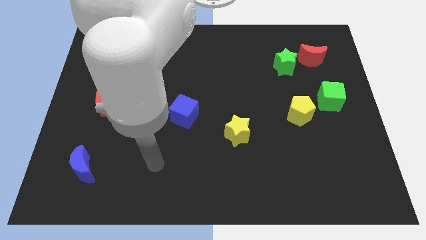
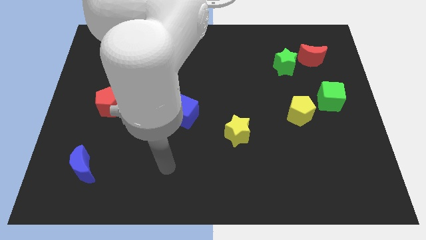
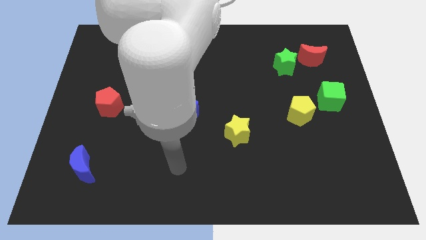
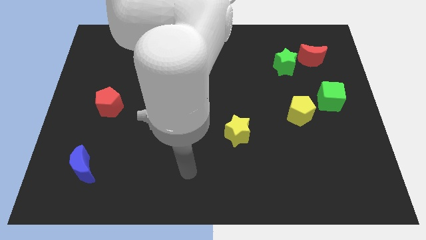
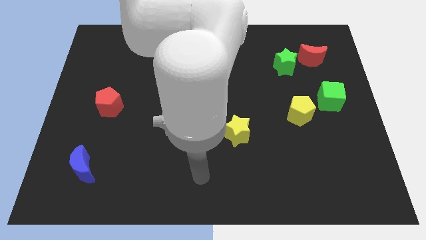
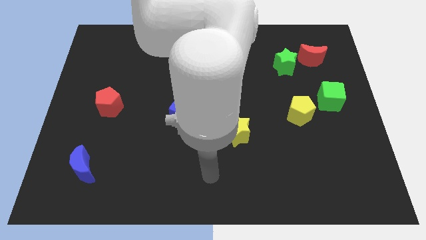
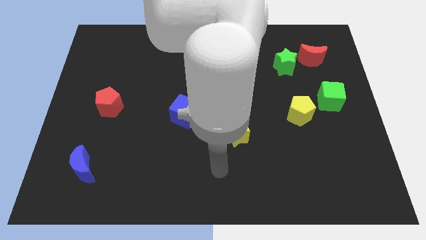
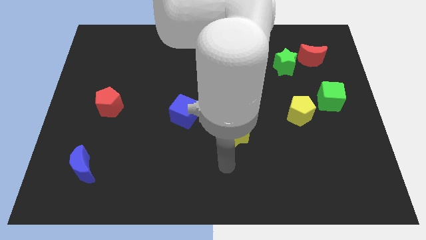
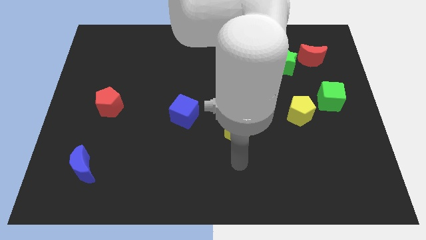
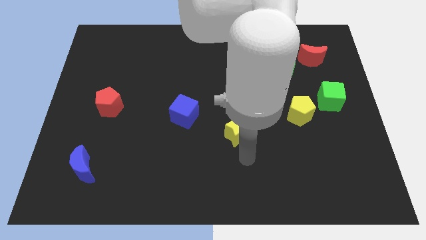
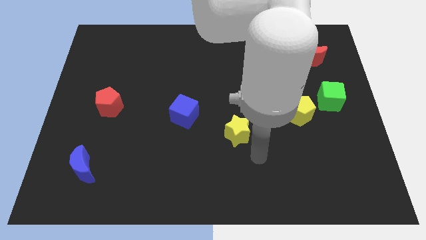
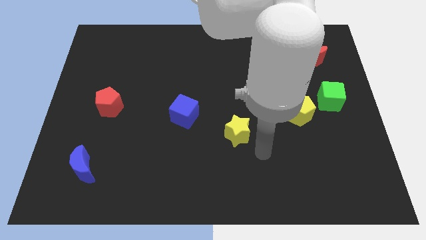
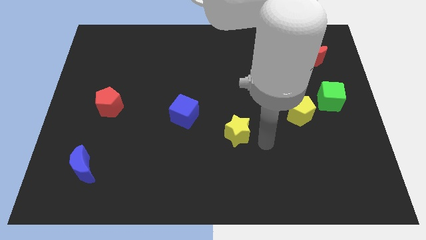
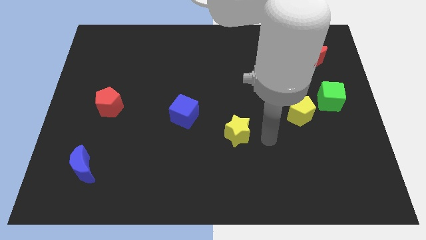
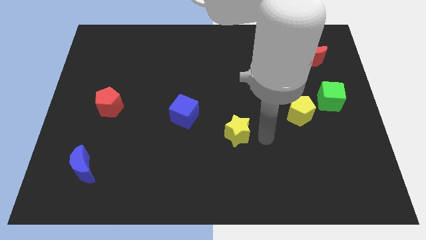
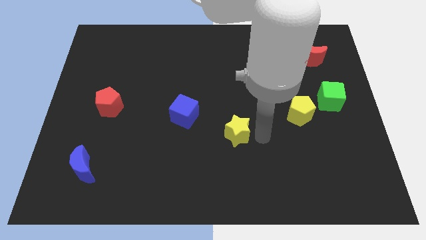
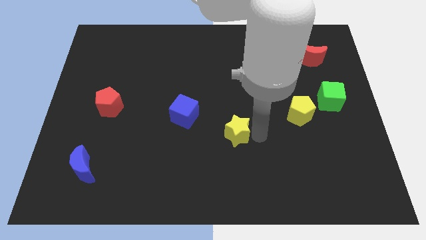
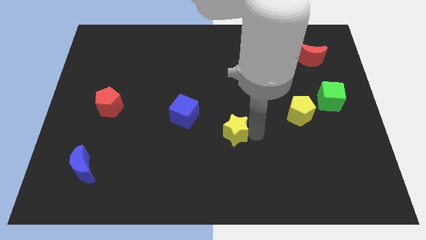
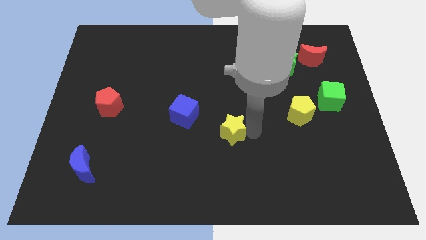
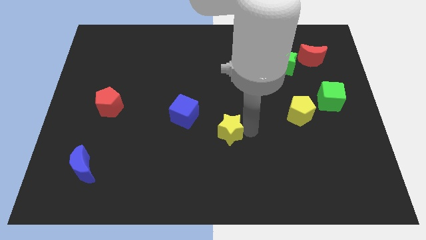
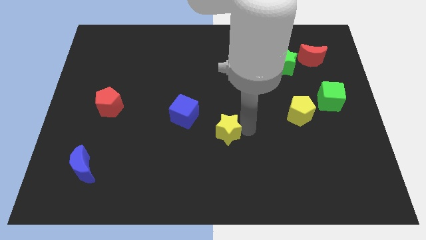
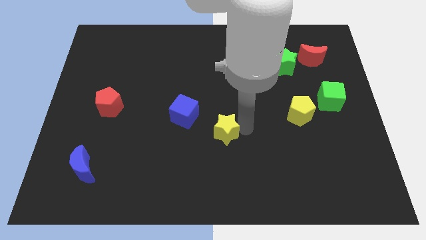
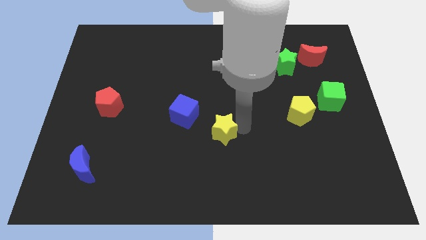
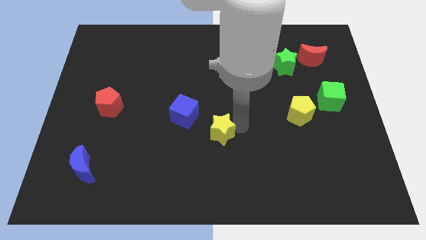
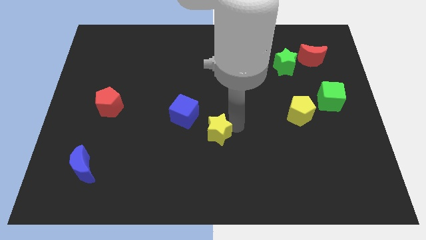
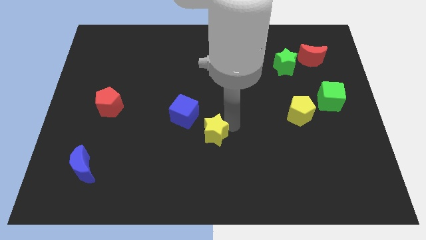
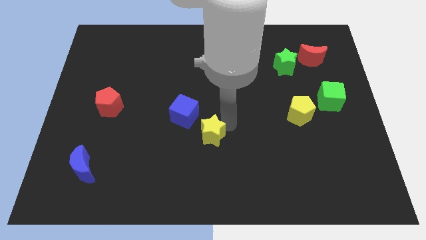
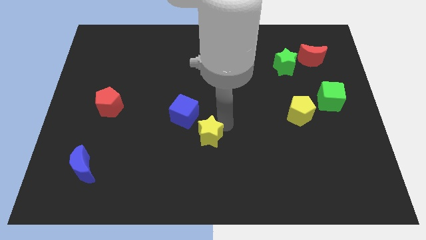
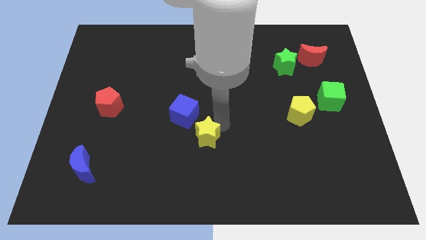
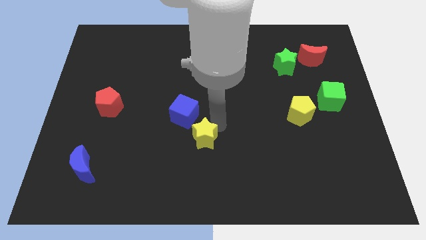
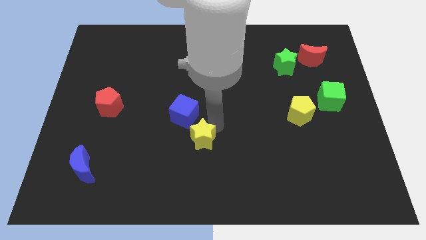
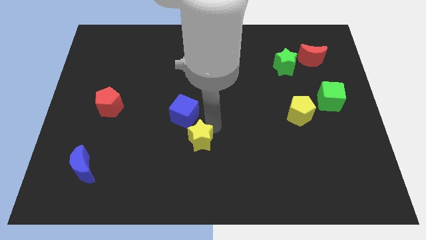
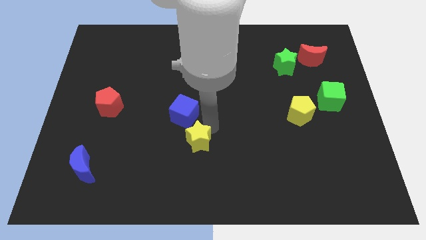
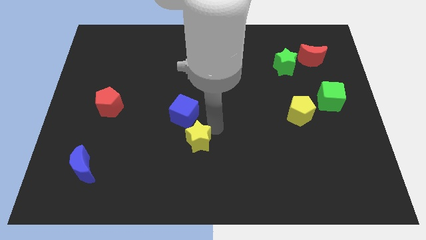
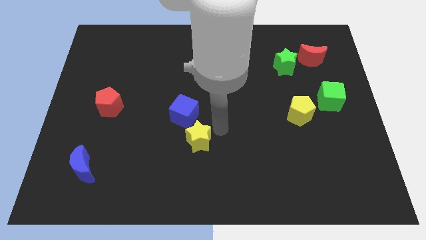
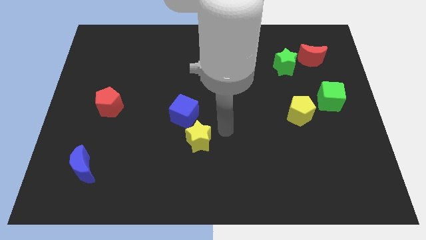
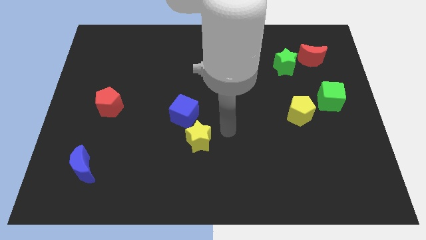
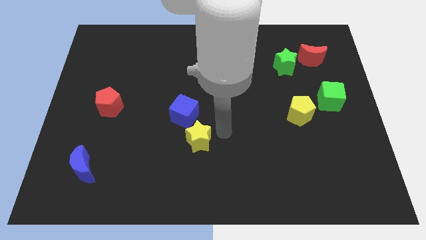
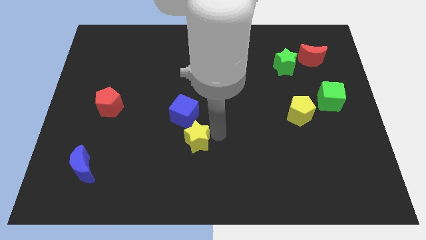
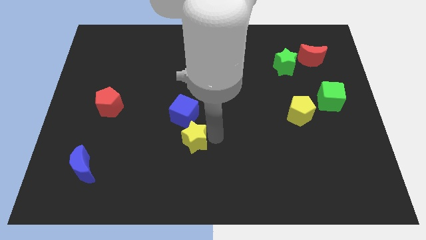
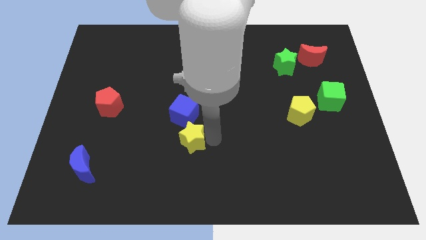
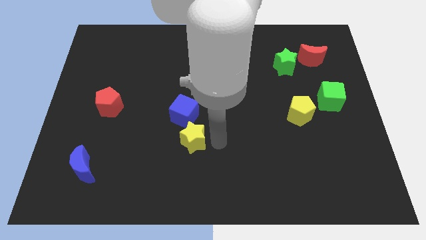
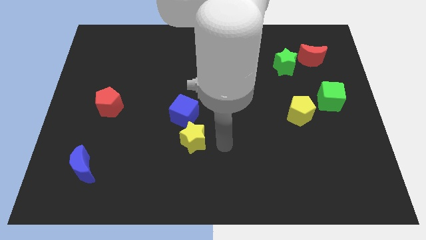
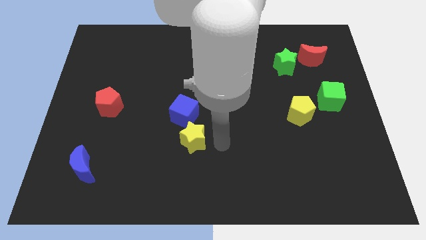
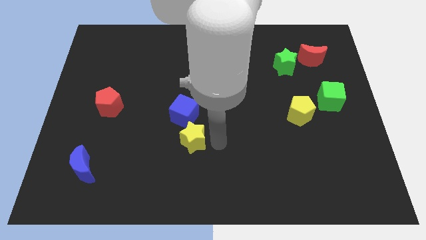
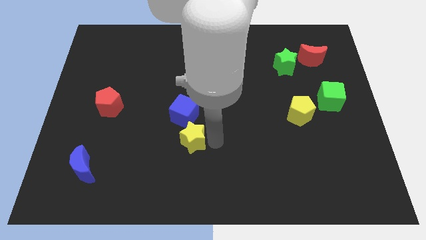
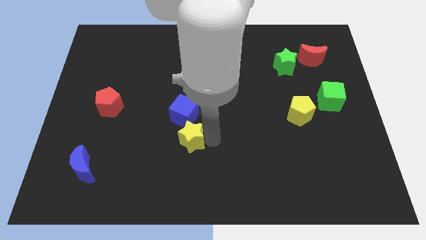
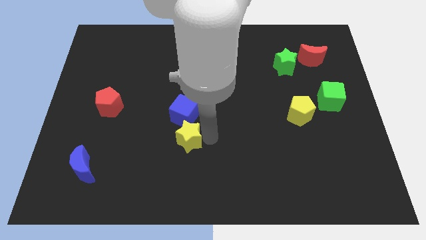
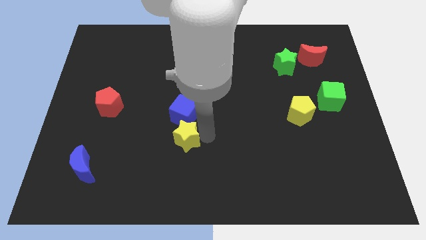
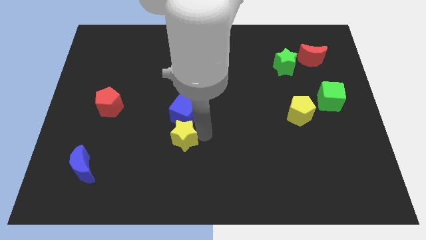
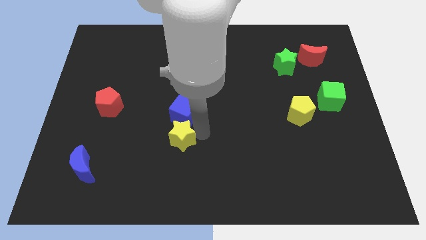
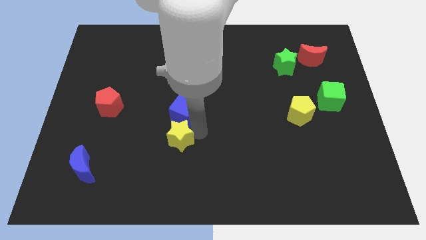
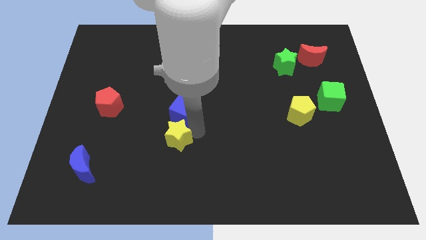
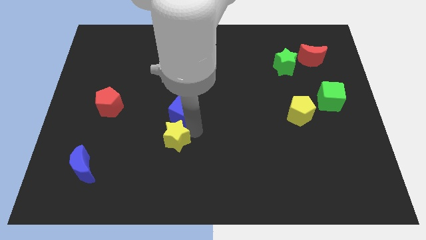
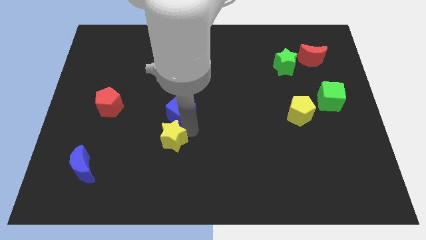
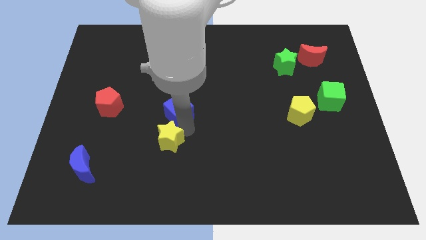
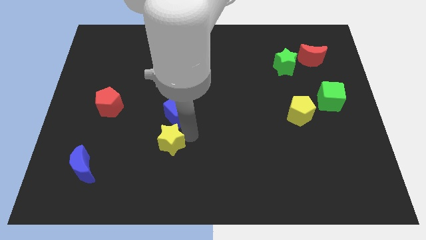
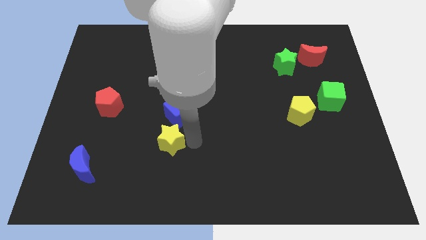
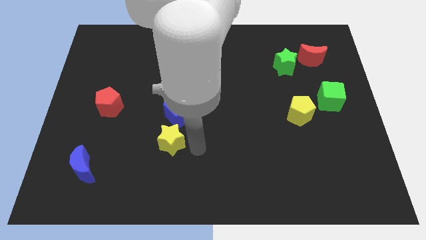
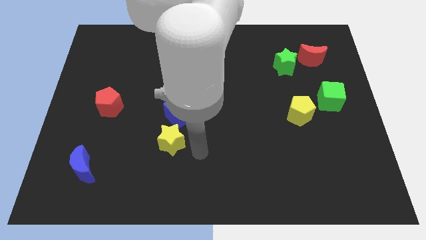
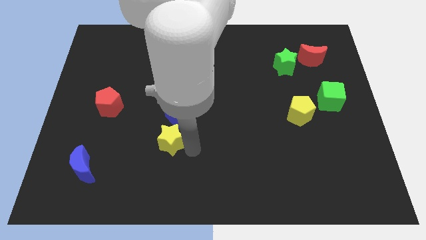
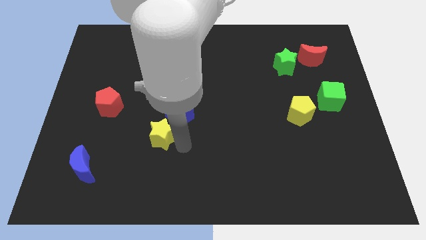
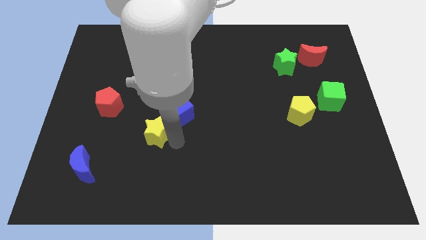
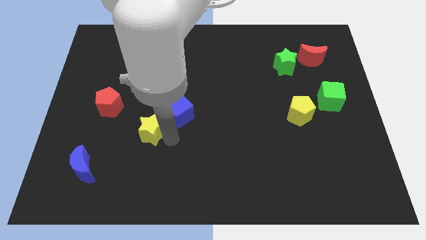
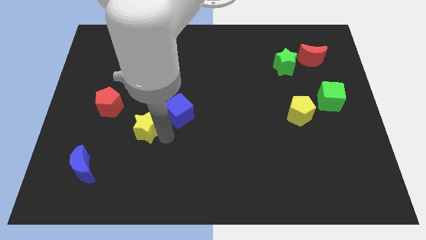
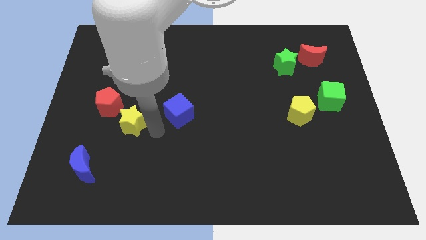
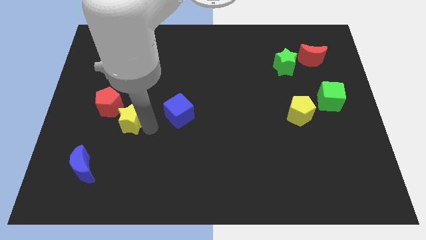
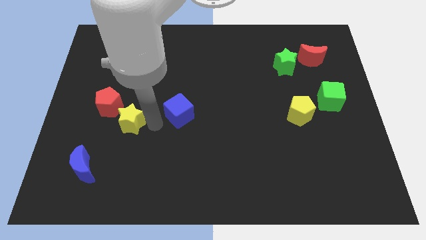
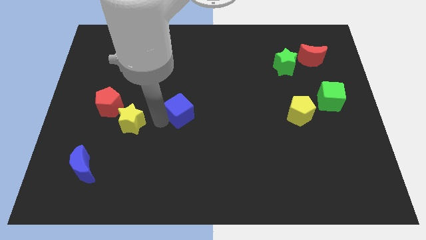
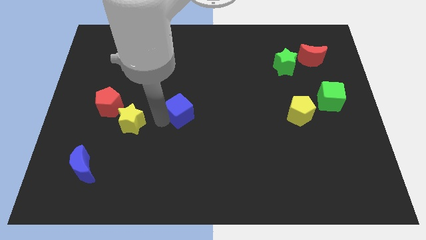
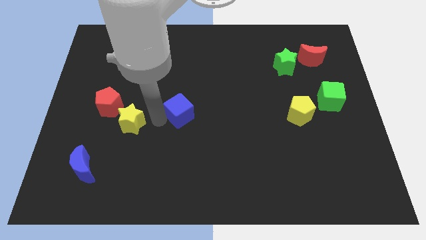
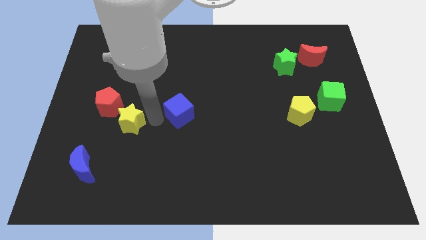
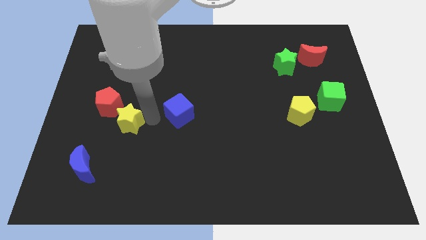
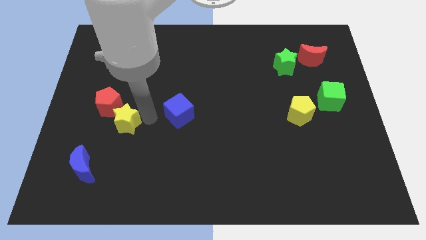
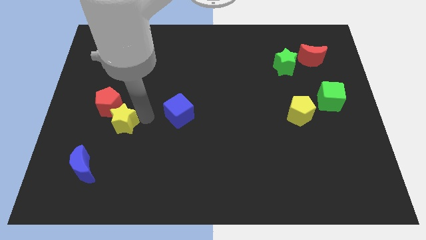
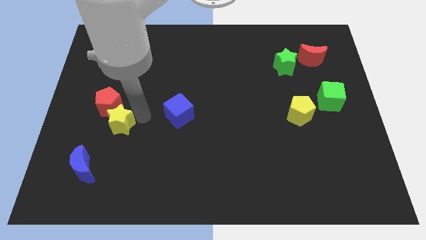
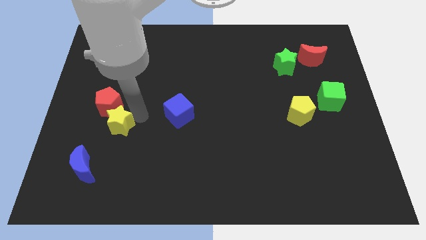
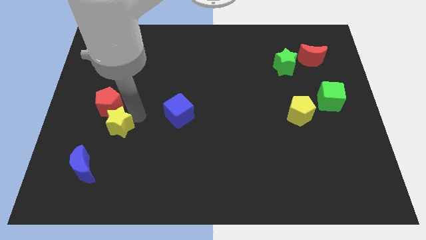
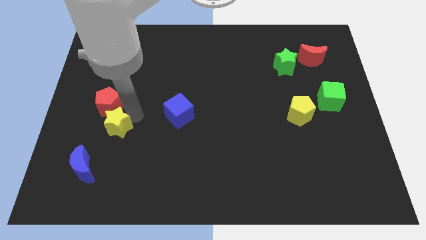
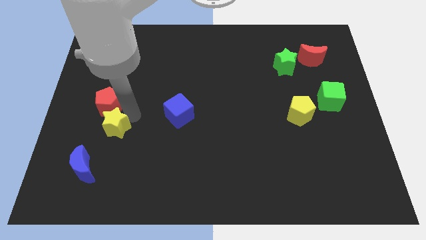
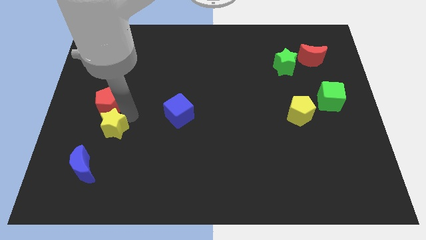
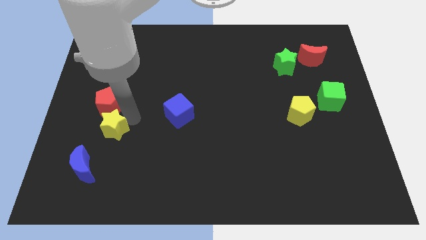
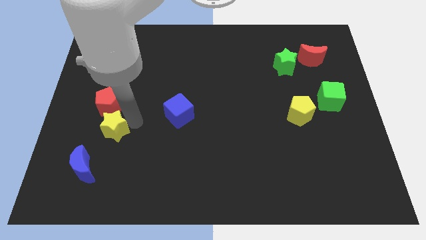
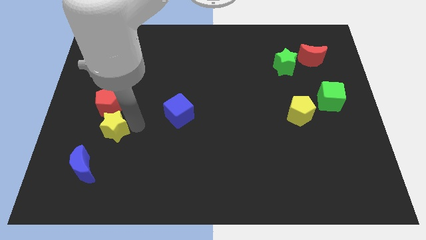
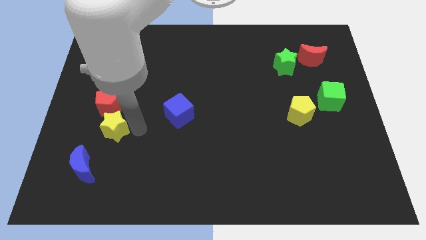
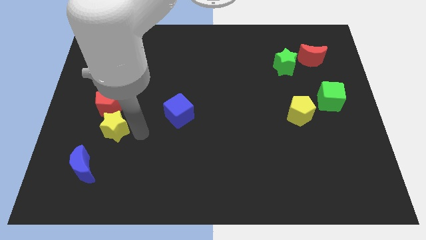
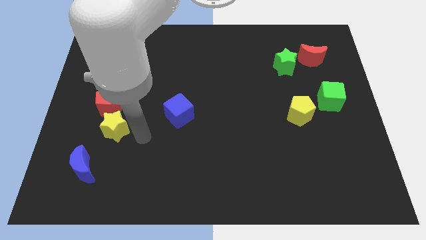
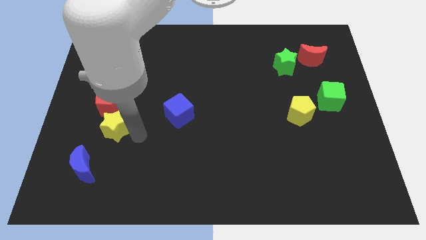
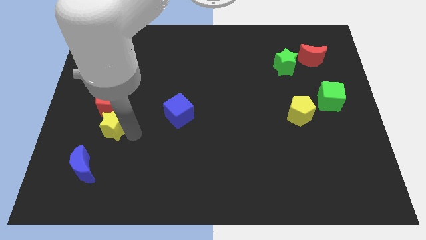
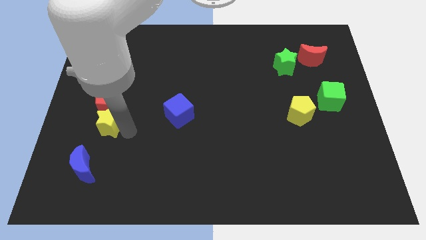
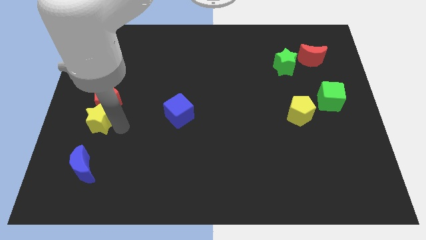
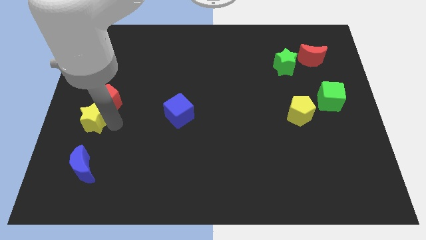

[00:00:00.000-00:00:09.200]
push the yellow star to the center left
